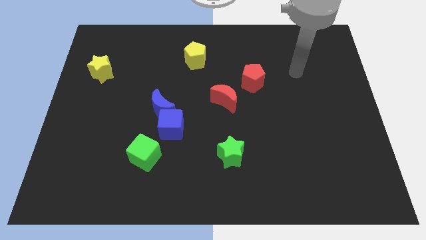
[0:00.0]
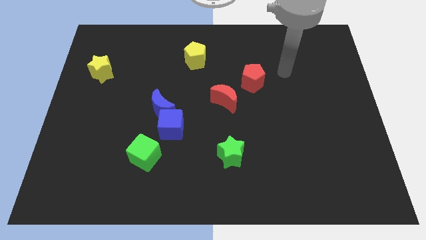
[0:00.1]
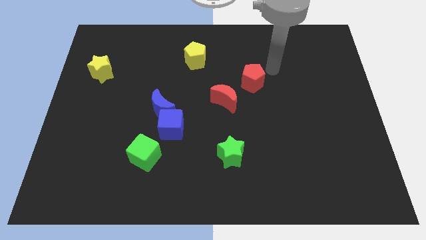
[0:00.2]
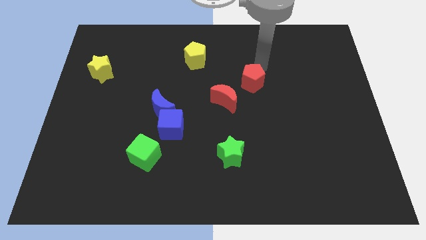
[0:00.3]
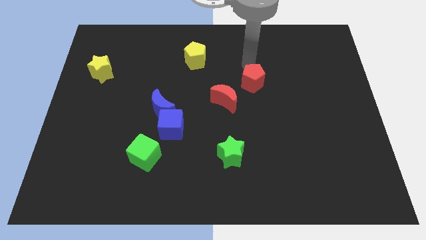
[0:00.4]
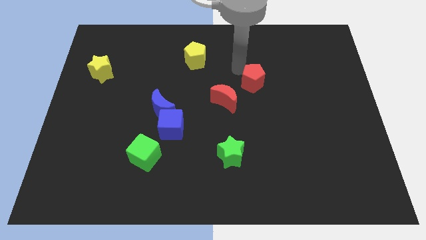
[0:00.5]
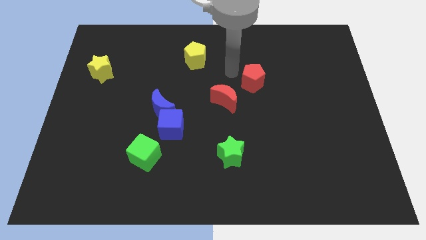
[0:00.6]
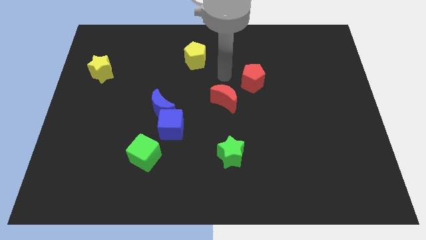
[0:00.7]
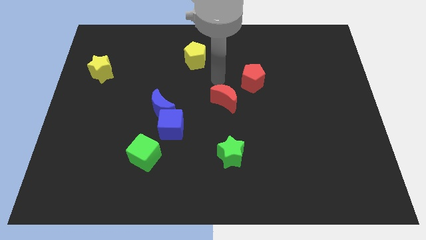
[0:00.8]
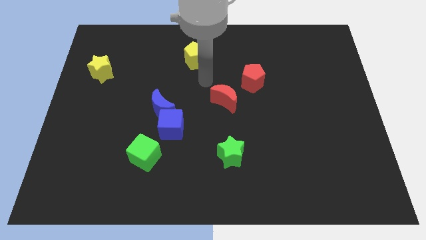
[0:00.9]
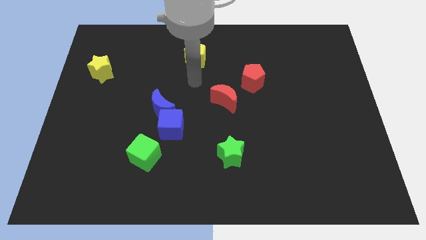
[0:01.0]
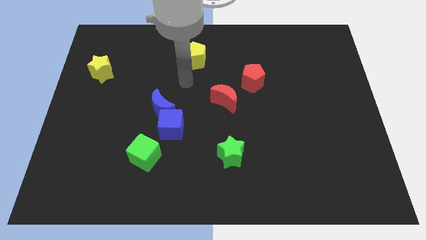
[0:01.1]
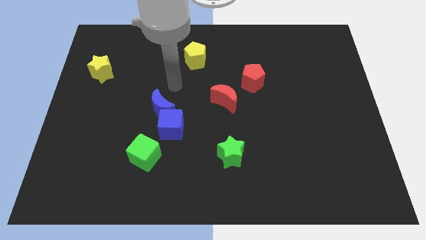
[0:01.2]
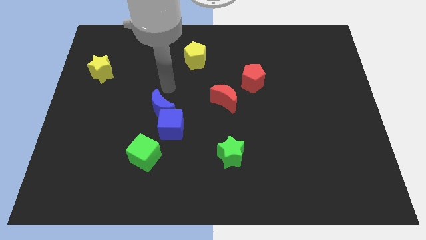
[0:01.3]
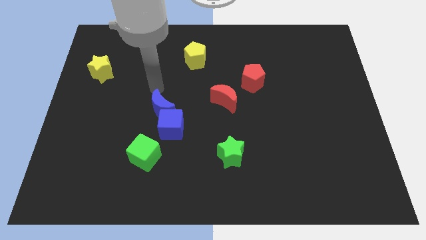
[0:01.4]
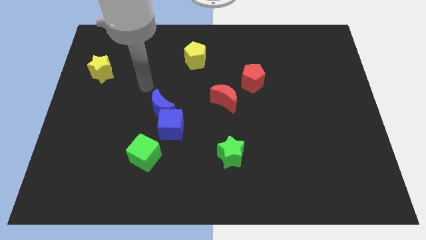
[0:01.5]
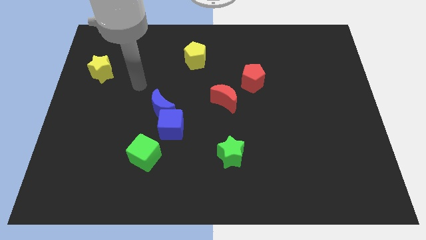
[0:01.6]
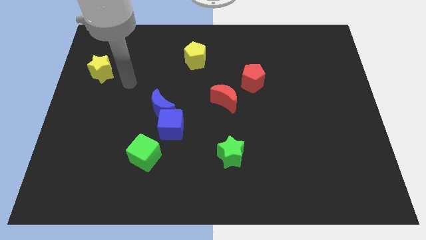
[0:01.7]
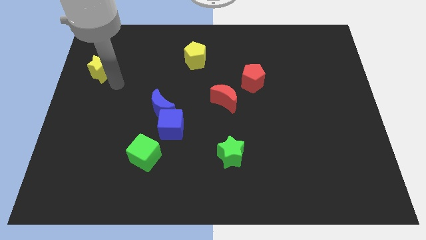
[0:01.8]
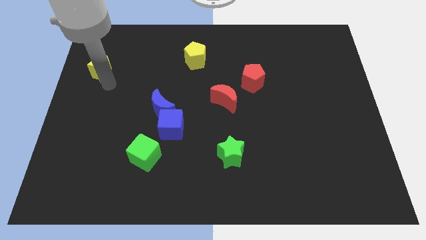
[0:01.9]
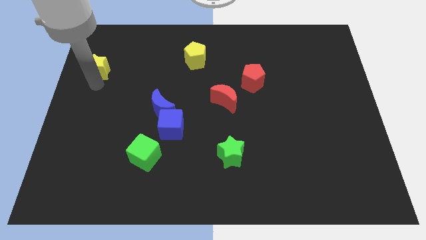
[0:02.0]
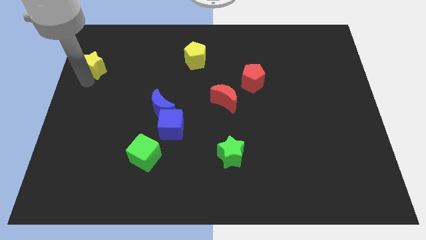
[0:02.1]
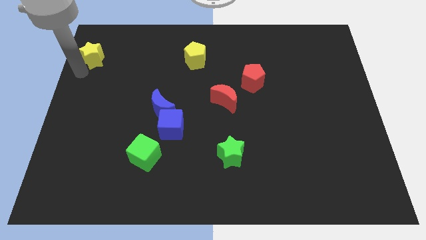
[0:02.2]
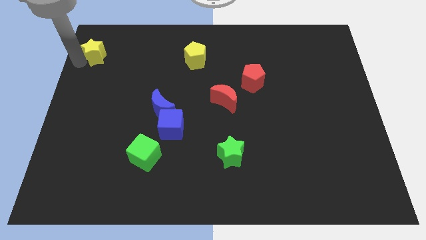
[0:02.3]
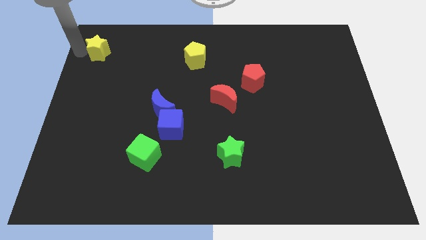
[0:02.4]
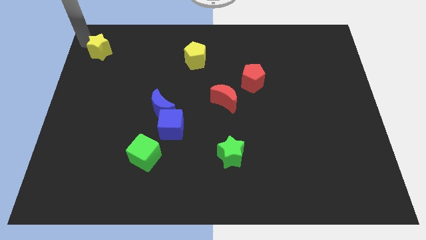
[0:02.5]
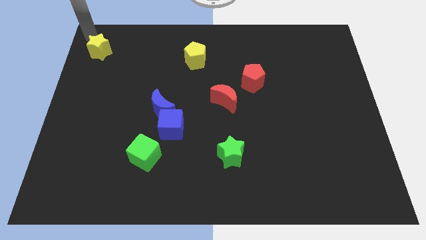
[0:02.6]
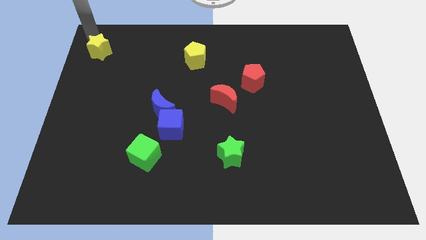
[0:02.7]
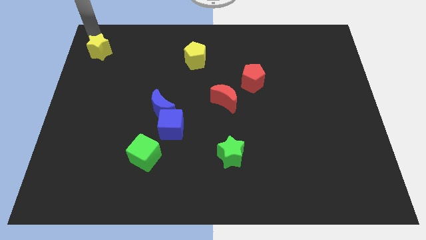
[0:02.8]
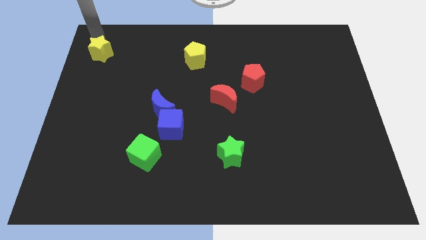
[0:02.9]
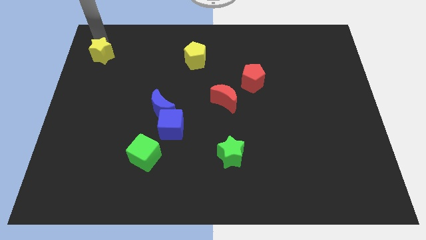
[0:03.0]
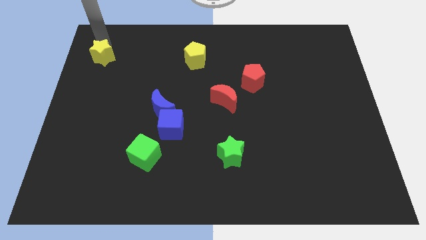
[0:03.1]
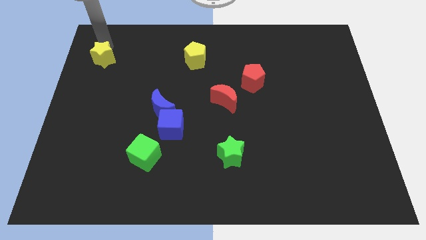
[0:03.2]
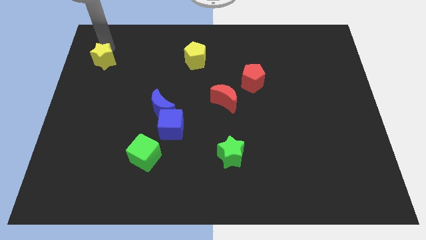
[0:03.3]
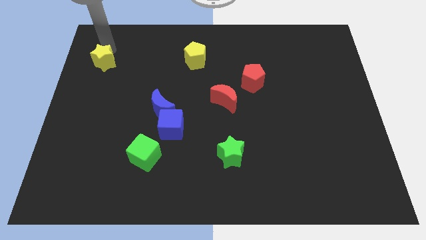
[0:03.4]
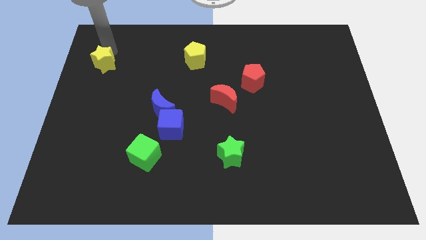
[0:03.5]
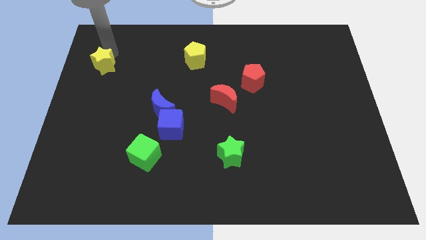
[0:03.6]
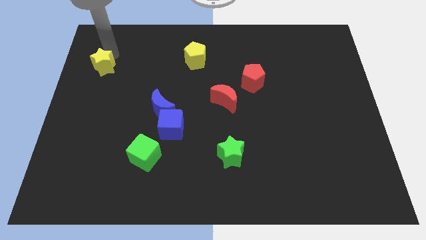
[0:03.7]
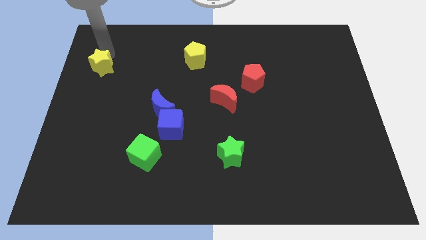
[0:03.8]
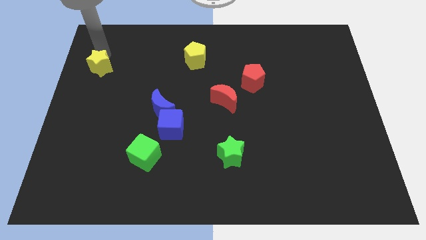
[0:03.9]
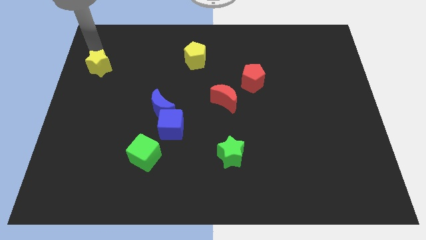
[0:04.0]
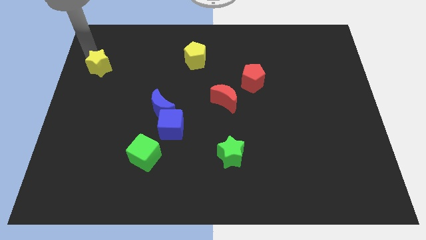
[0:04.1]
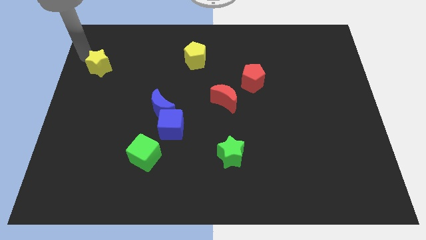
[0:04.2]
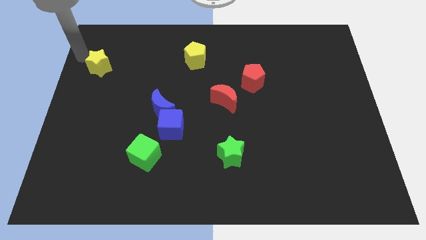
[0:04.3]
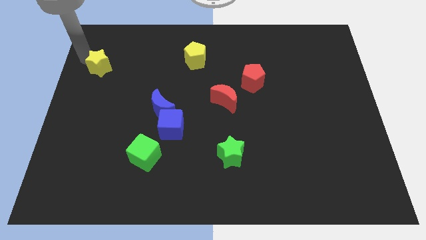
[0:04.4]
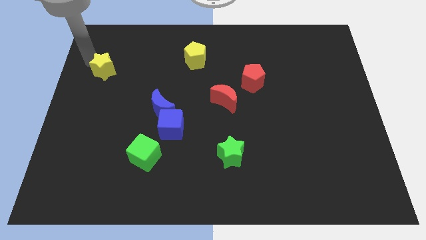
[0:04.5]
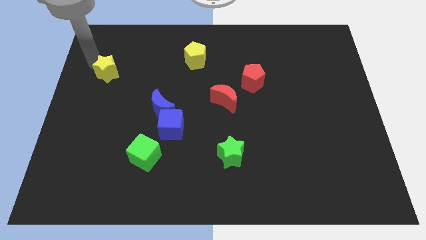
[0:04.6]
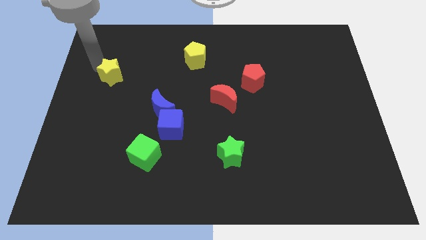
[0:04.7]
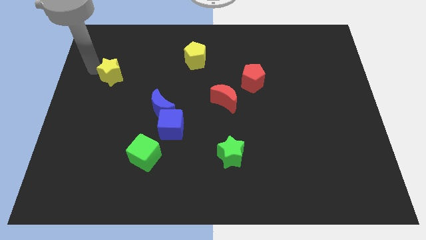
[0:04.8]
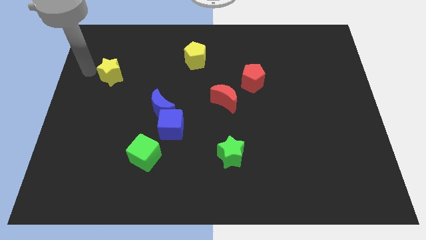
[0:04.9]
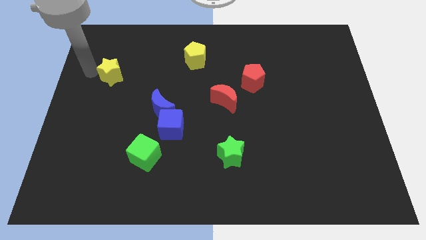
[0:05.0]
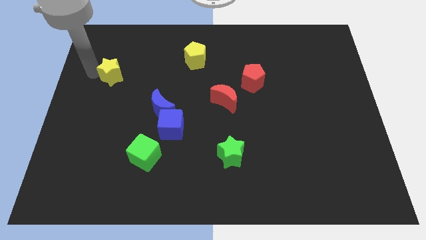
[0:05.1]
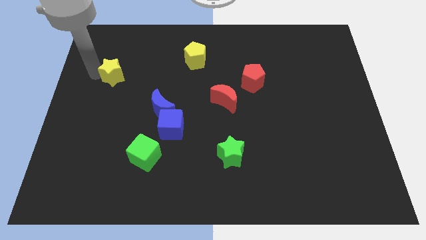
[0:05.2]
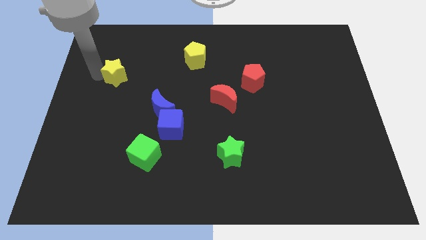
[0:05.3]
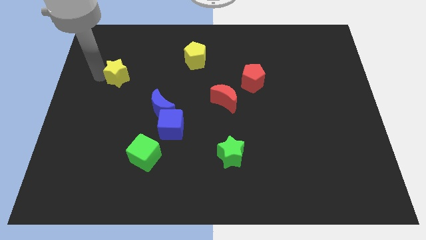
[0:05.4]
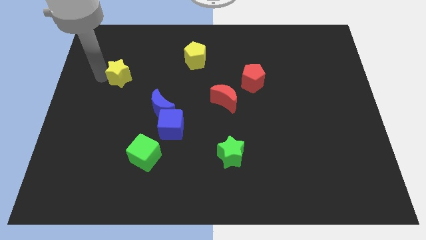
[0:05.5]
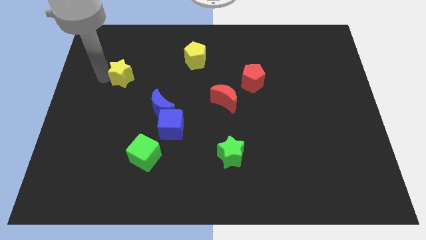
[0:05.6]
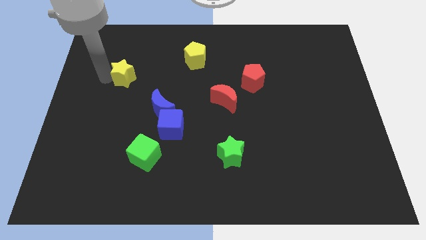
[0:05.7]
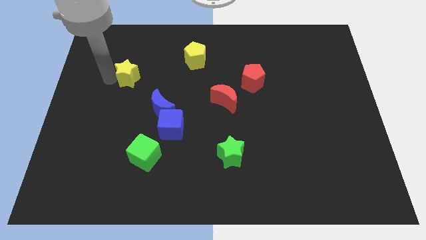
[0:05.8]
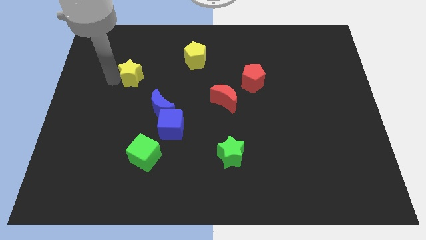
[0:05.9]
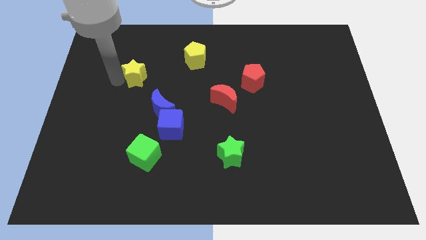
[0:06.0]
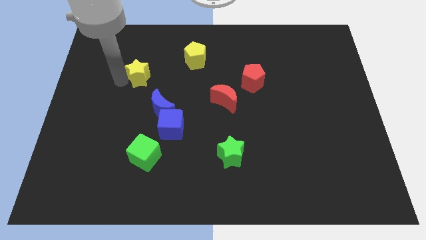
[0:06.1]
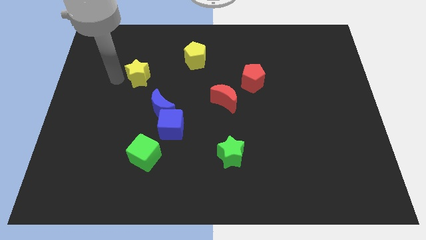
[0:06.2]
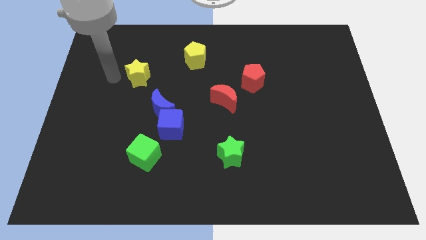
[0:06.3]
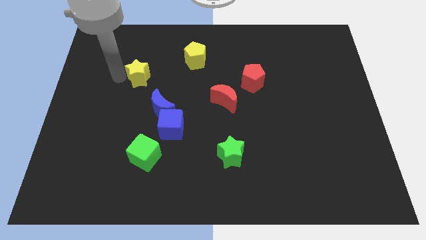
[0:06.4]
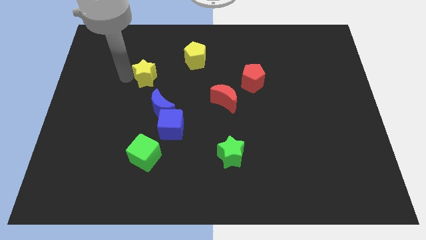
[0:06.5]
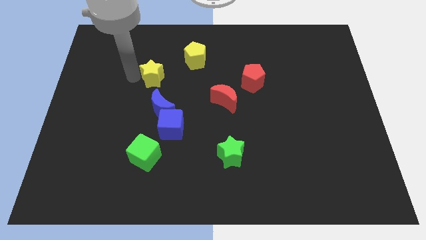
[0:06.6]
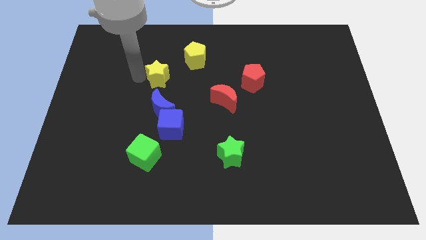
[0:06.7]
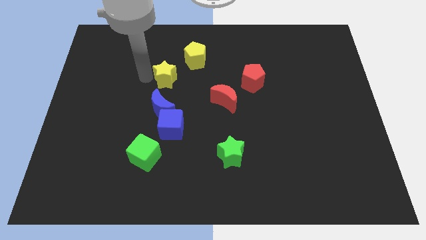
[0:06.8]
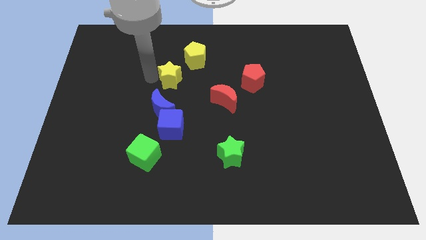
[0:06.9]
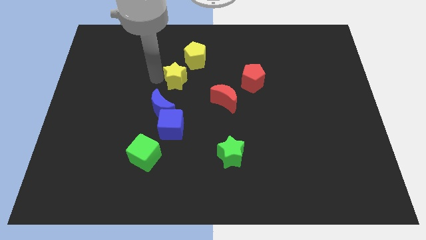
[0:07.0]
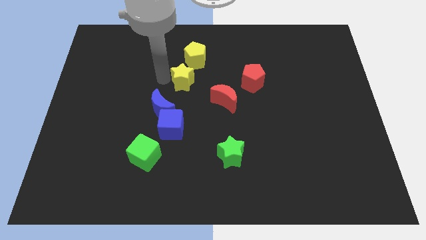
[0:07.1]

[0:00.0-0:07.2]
push the yellow star to the right

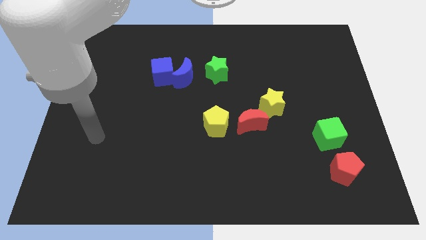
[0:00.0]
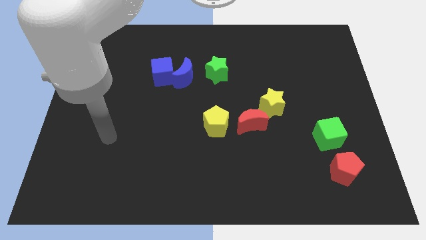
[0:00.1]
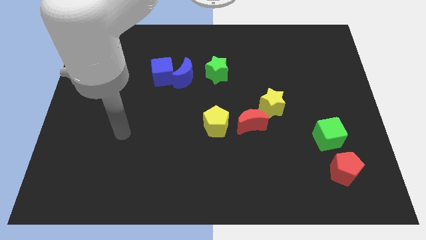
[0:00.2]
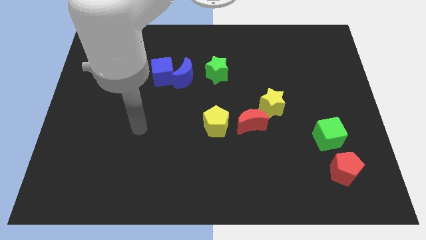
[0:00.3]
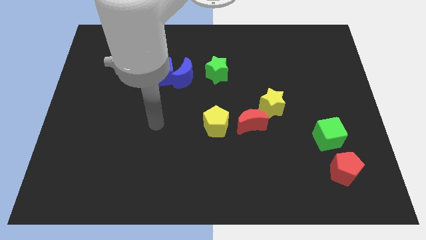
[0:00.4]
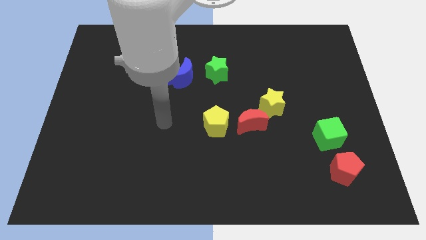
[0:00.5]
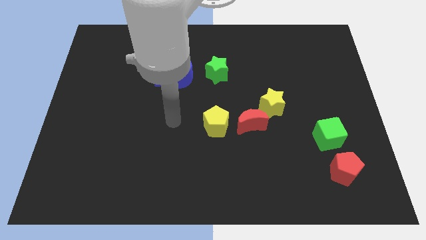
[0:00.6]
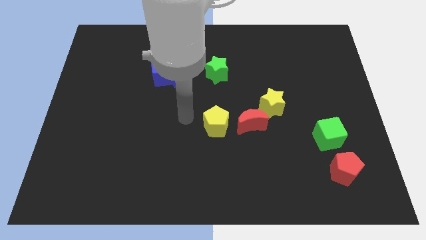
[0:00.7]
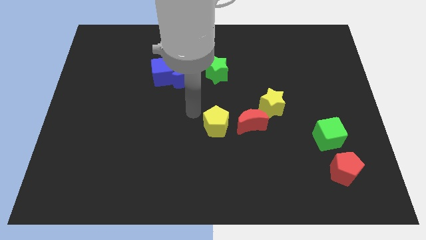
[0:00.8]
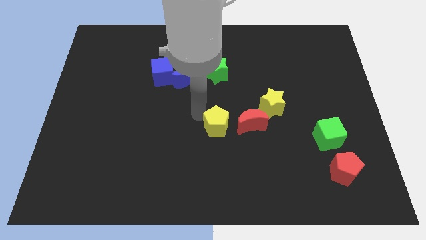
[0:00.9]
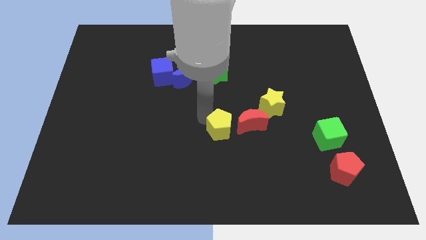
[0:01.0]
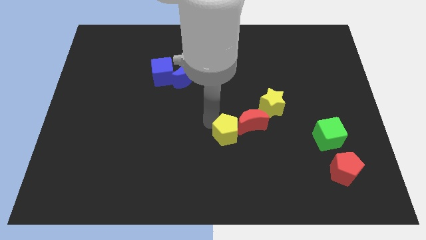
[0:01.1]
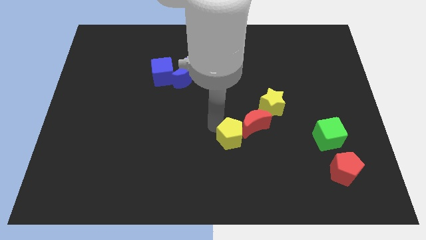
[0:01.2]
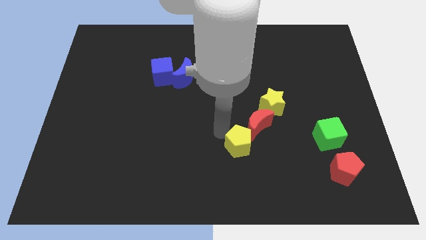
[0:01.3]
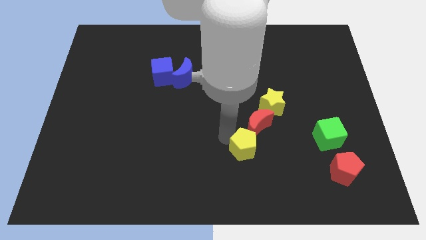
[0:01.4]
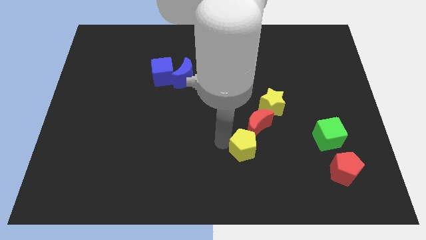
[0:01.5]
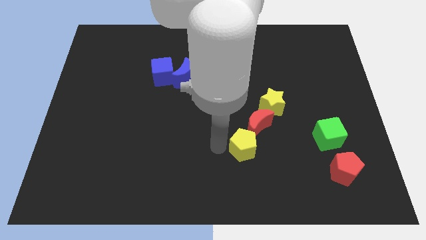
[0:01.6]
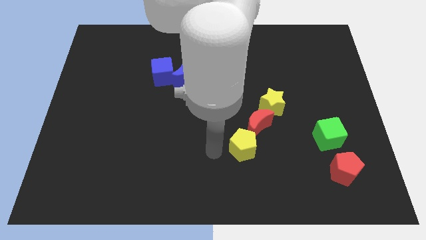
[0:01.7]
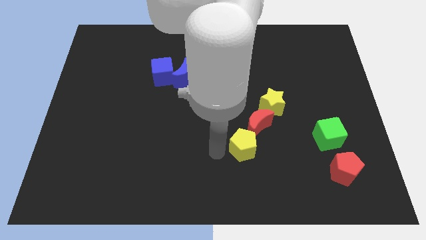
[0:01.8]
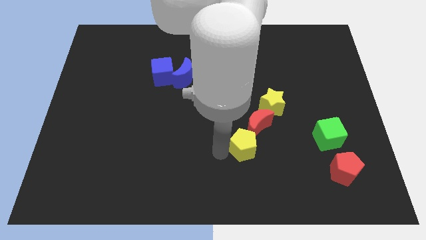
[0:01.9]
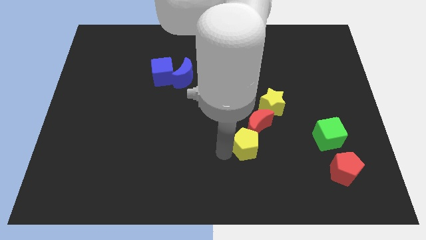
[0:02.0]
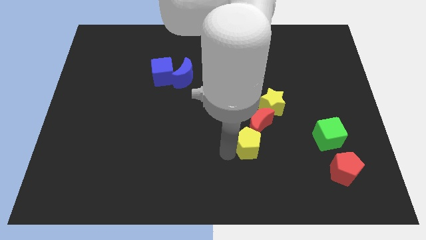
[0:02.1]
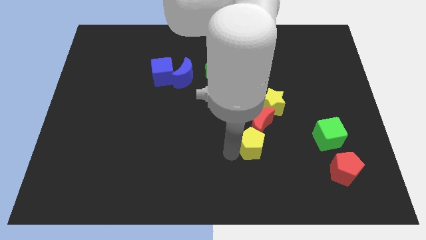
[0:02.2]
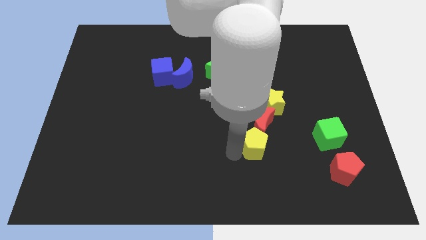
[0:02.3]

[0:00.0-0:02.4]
slightly move the yellow pentagon to the right
